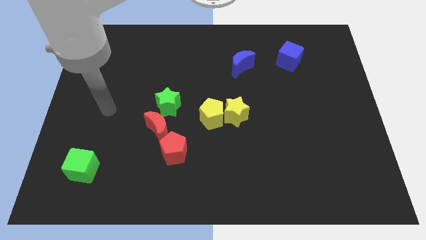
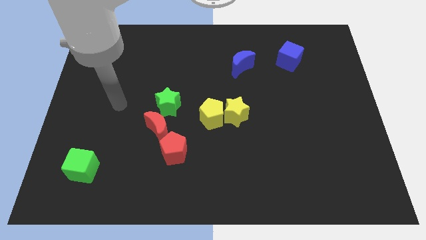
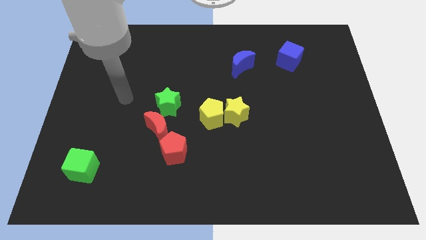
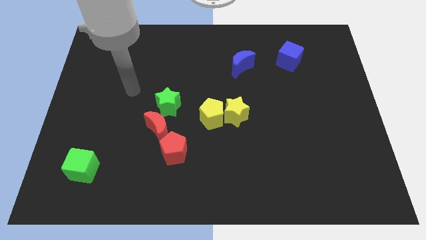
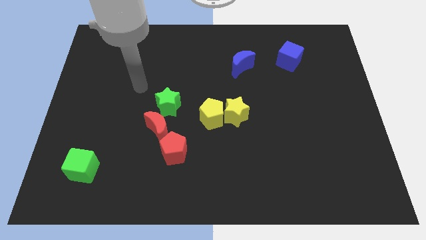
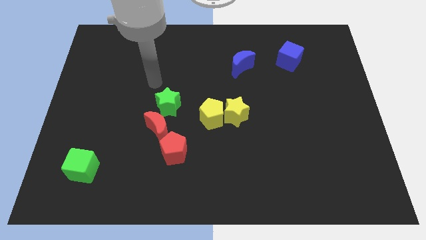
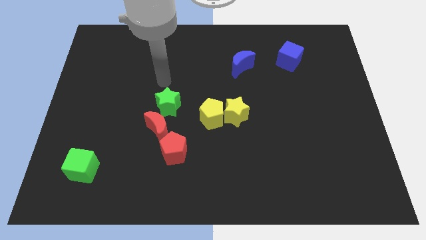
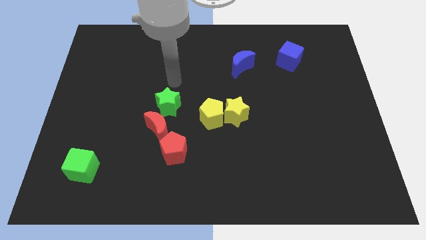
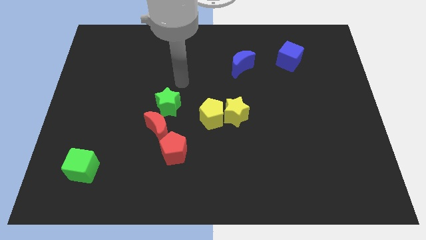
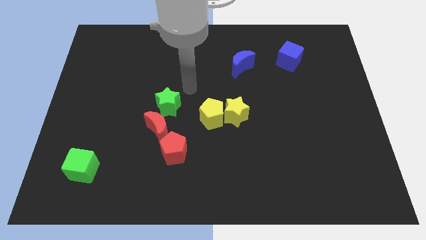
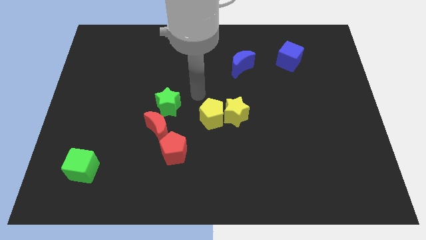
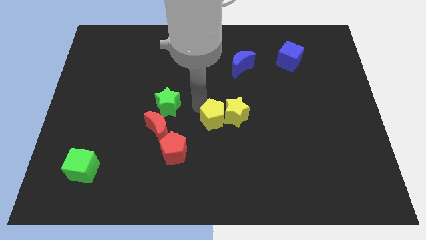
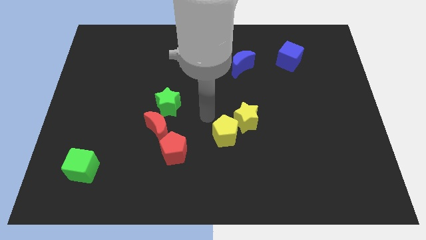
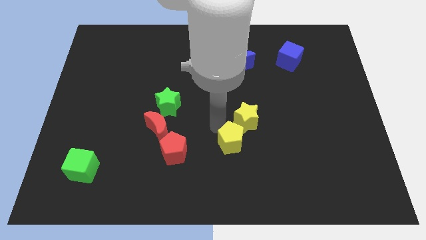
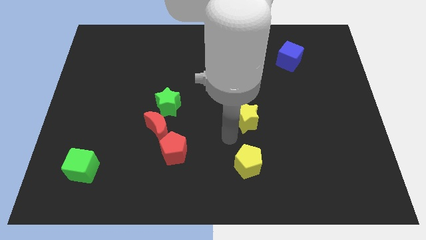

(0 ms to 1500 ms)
separate the yellow star from the yellow pentagon

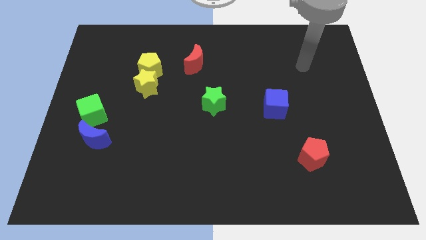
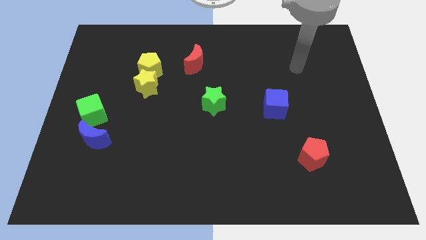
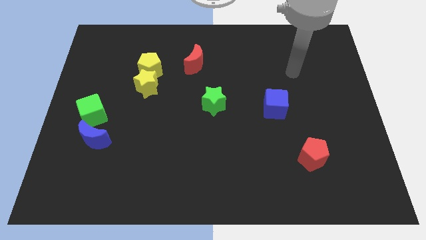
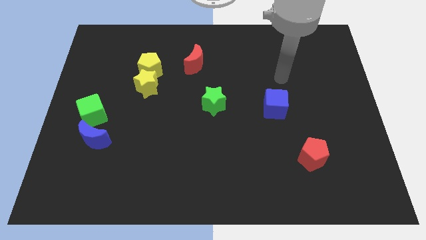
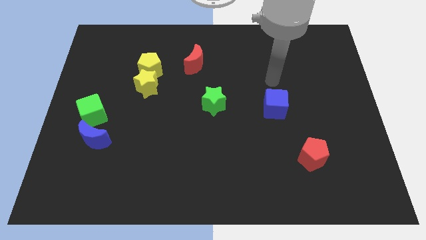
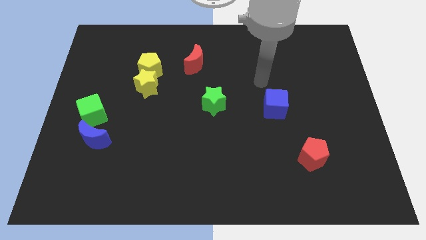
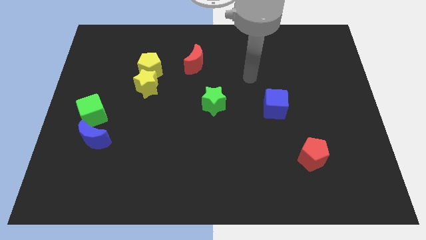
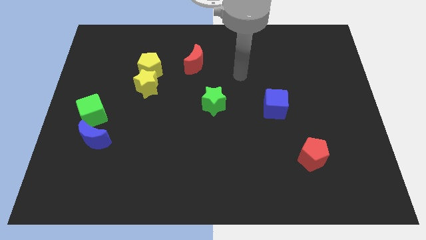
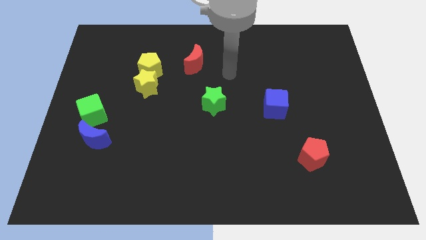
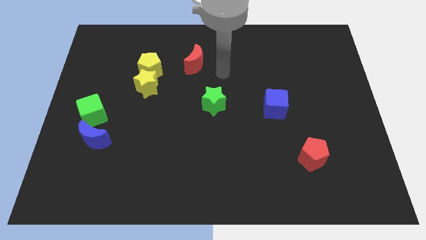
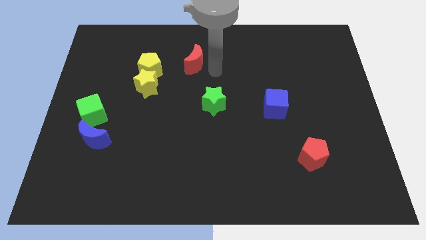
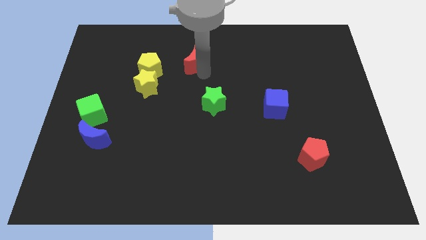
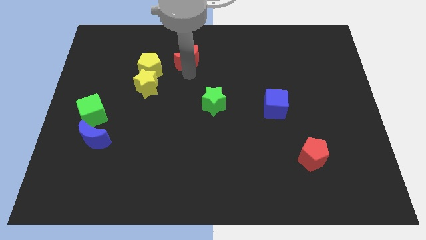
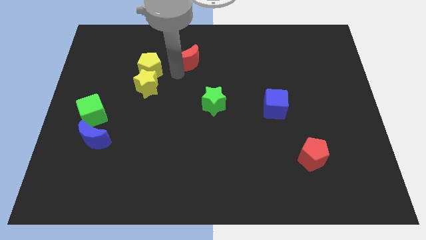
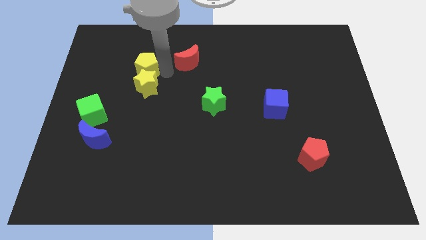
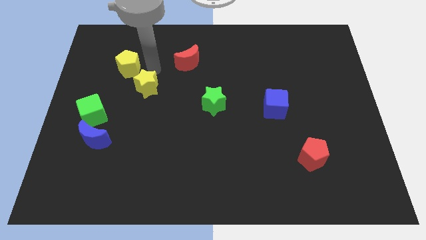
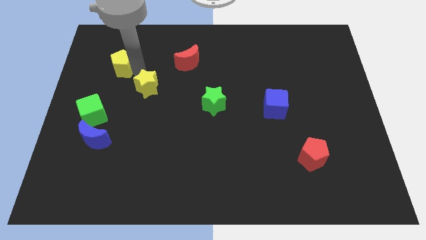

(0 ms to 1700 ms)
move the yellow star away from the yellow pentagon

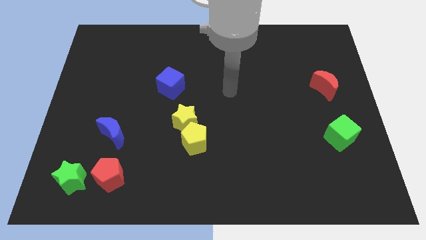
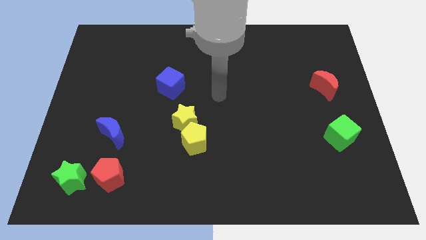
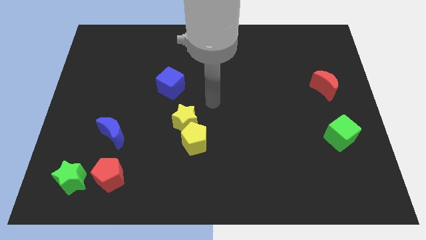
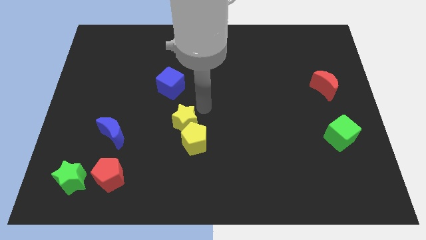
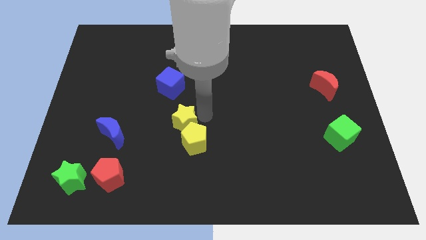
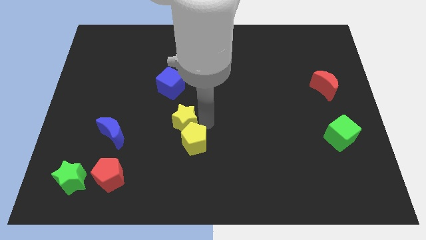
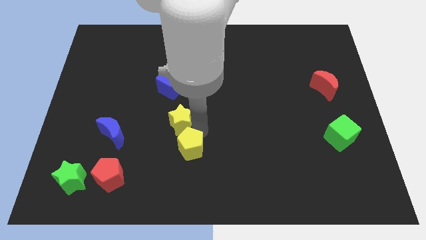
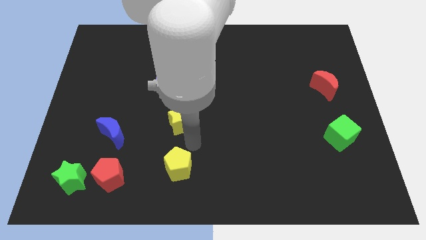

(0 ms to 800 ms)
pull the yellow star apart from the yellow pentagon

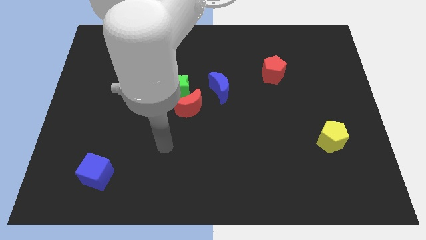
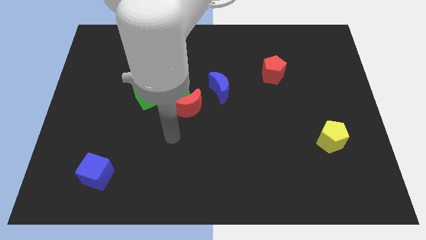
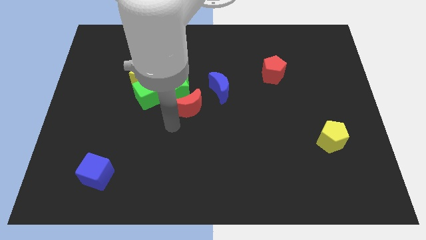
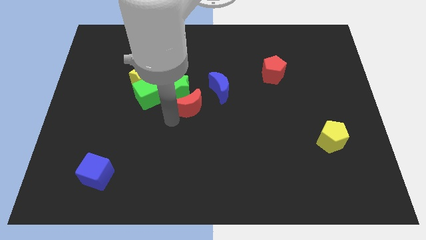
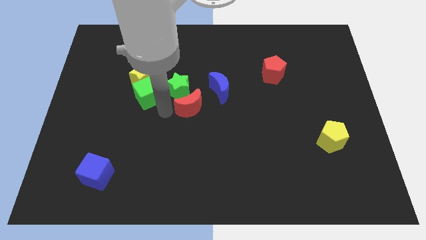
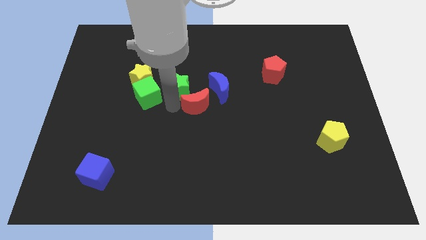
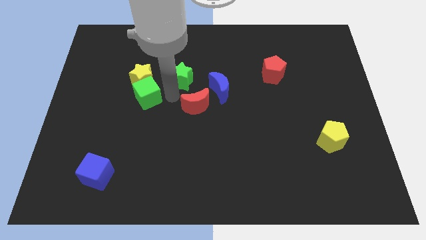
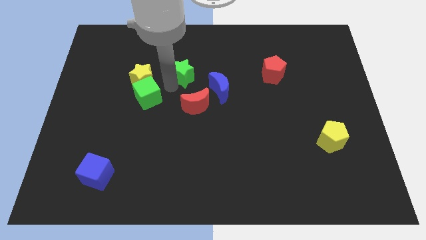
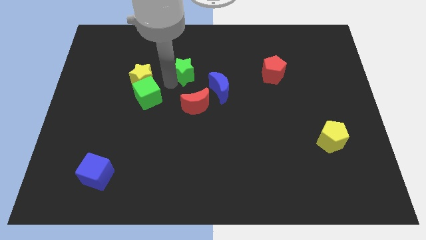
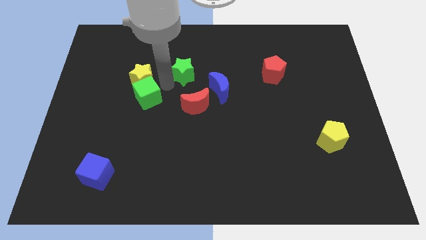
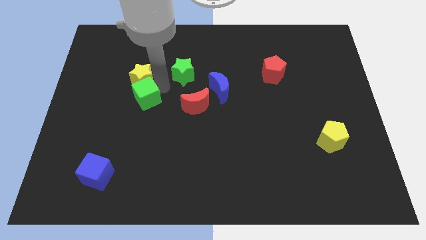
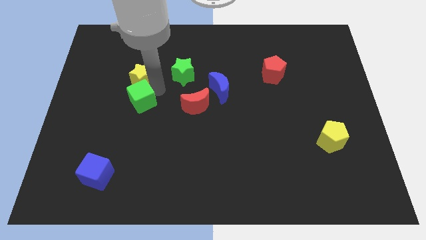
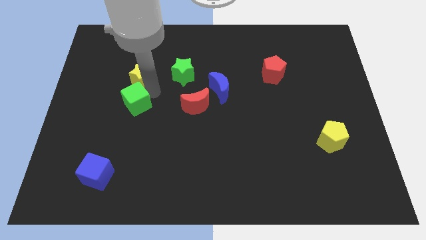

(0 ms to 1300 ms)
move the green cube away from the yellow star and green star

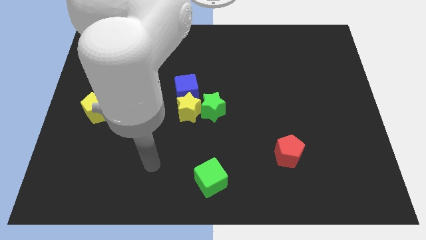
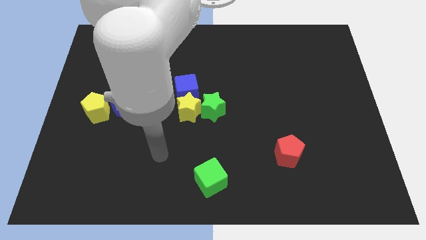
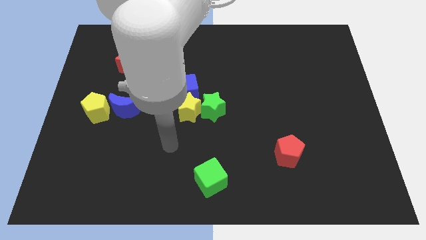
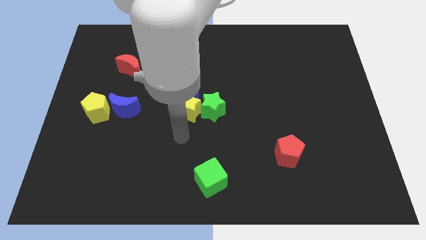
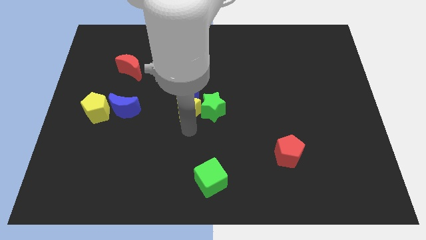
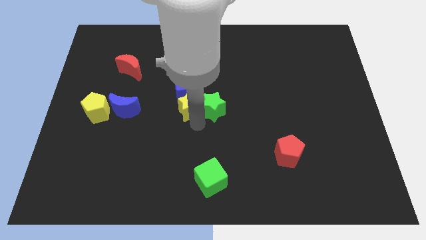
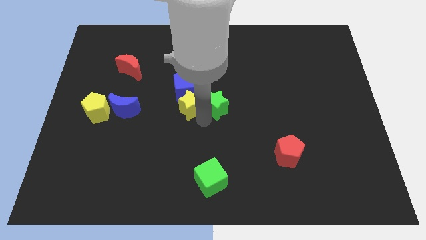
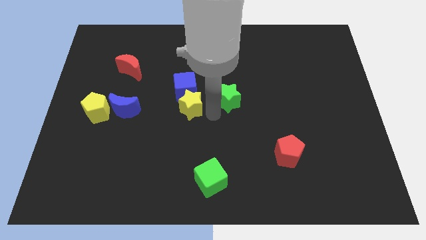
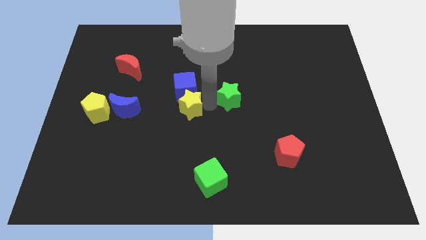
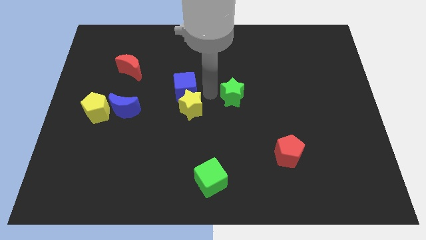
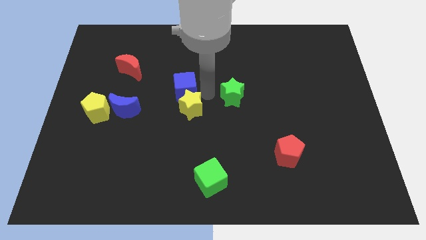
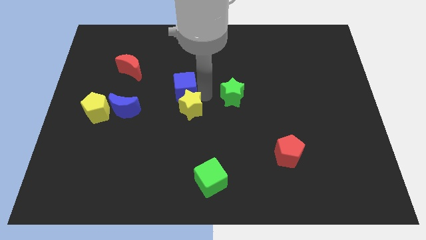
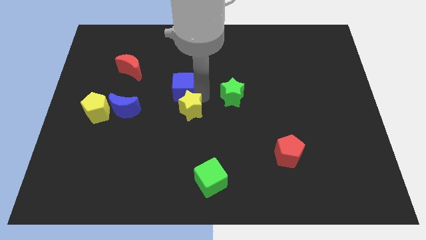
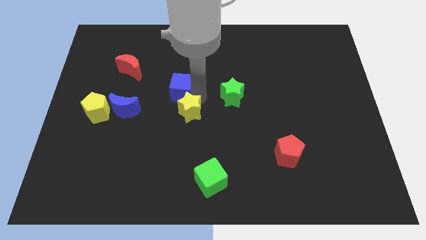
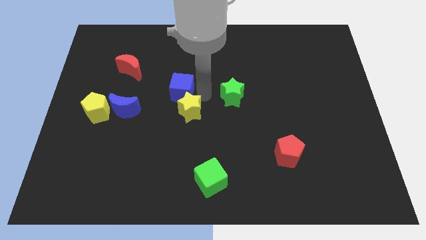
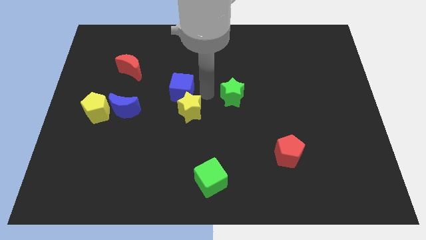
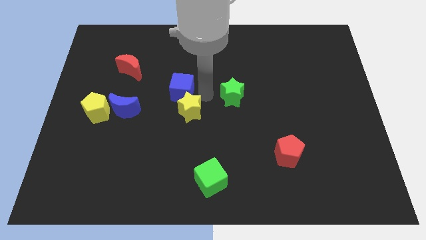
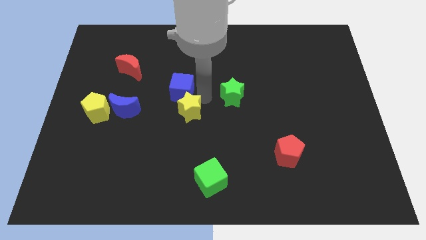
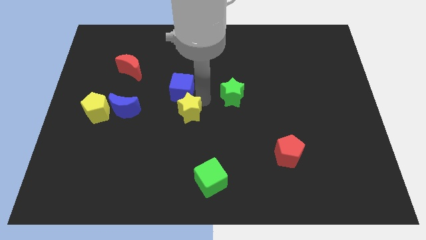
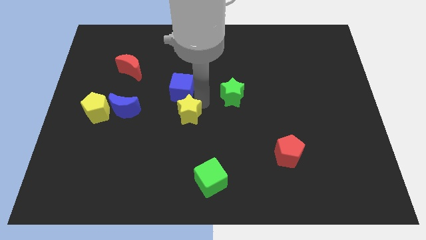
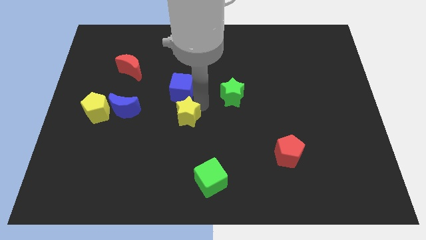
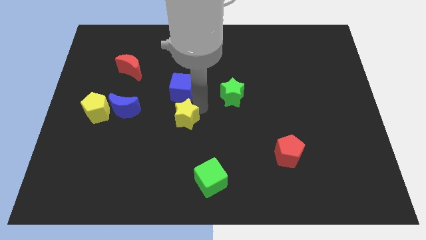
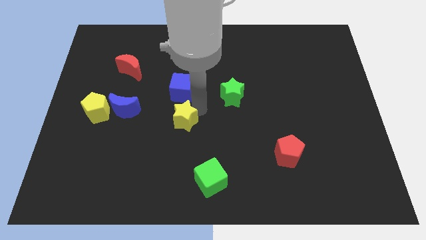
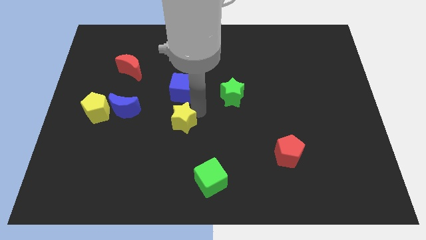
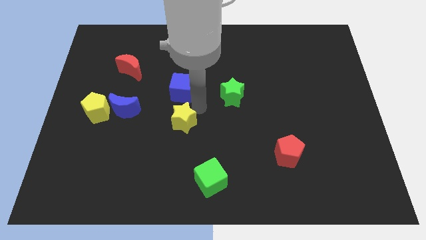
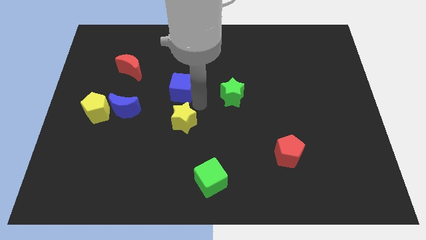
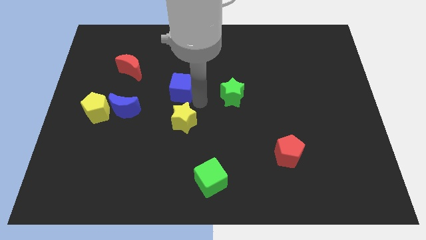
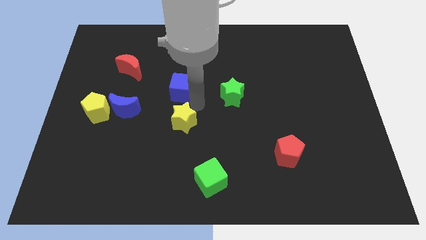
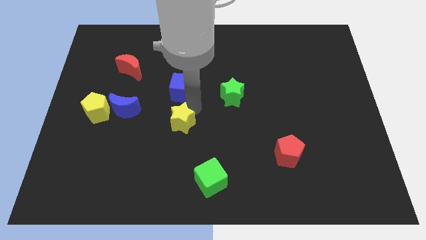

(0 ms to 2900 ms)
pull the yellow star apart from the blue cube and green star

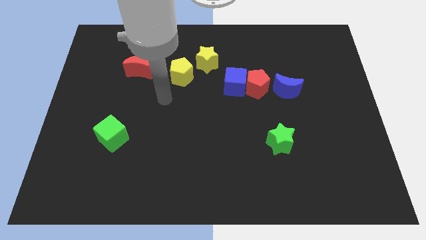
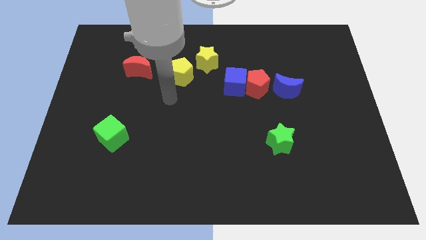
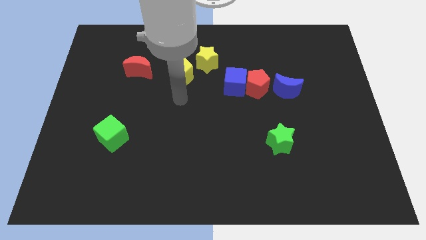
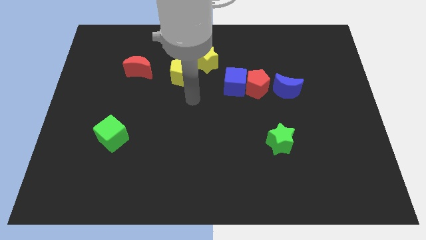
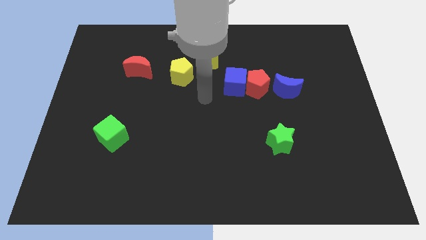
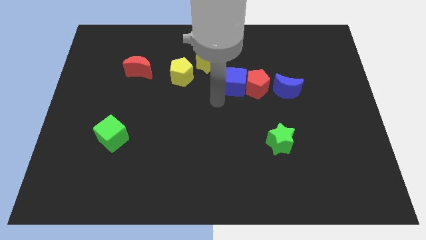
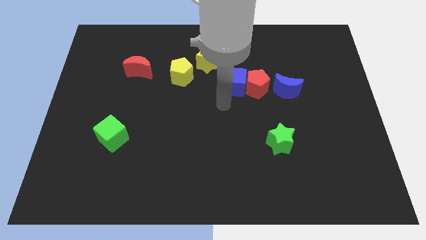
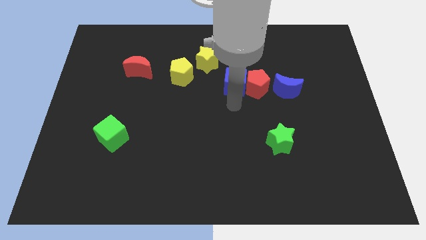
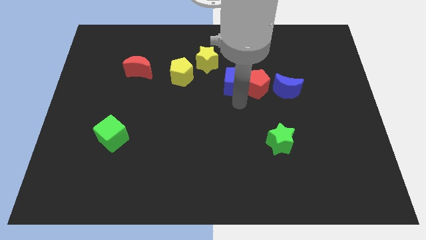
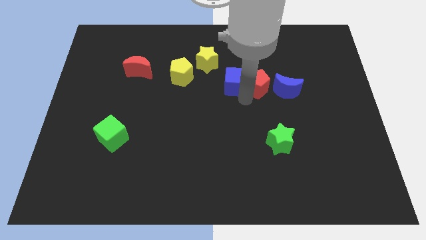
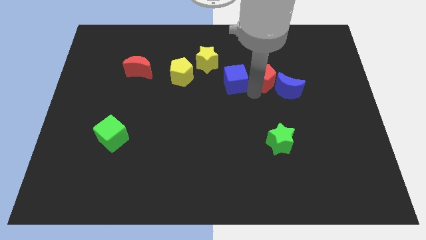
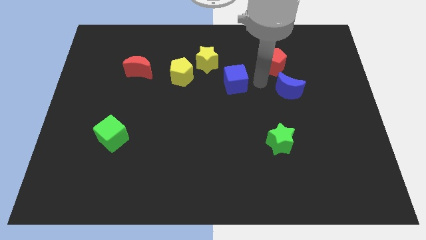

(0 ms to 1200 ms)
pull the blue cube apart from the red pentagon
